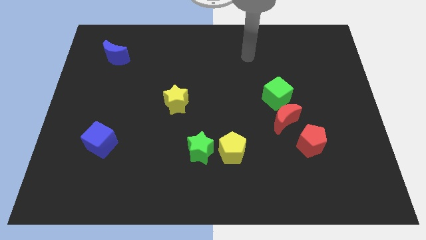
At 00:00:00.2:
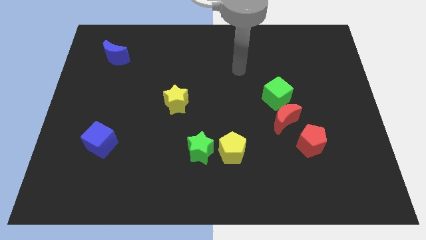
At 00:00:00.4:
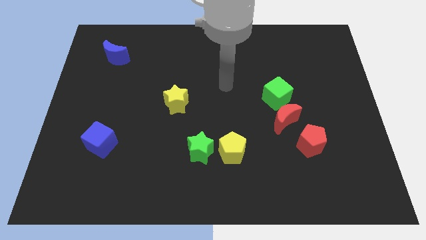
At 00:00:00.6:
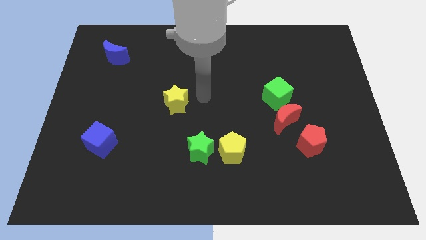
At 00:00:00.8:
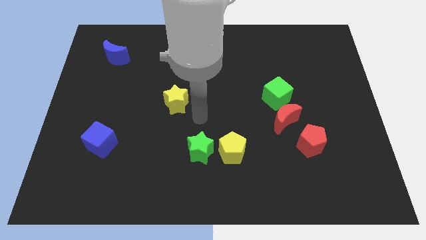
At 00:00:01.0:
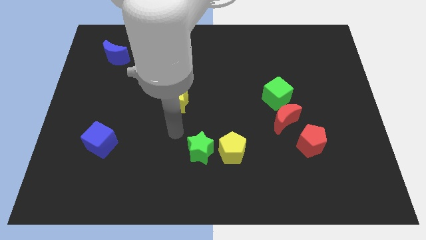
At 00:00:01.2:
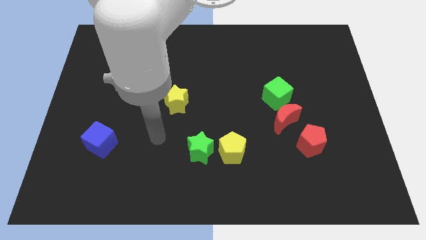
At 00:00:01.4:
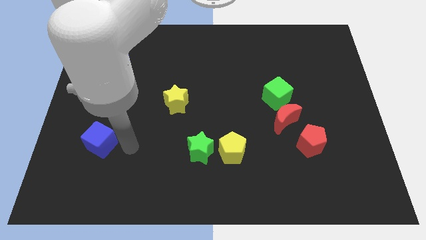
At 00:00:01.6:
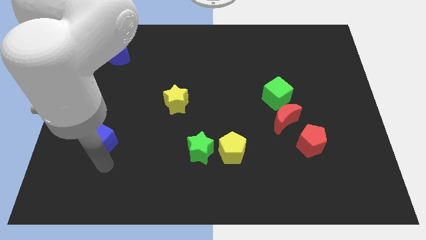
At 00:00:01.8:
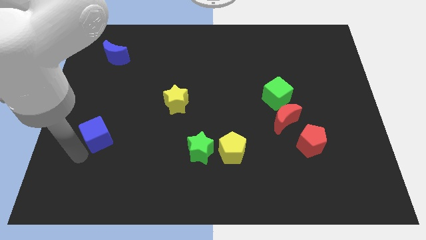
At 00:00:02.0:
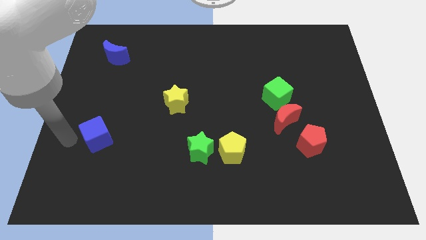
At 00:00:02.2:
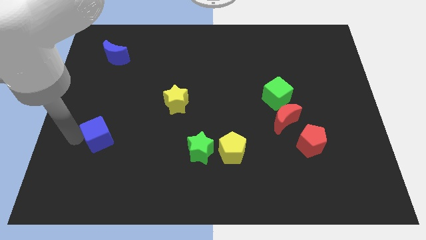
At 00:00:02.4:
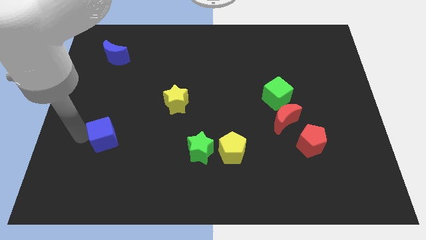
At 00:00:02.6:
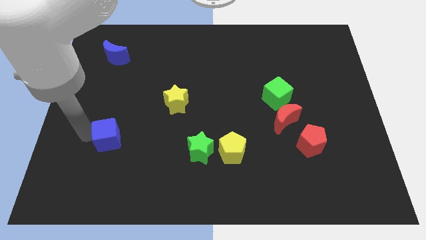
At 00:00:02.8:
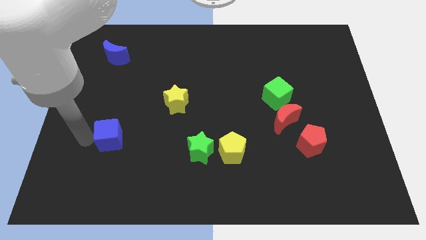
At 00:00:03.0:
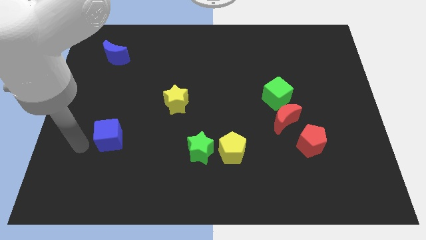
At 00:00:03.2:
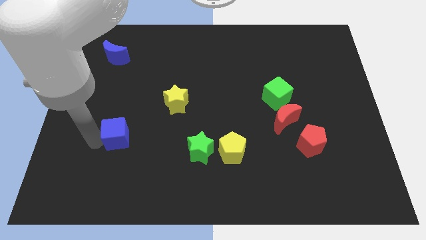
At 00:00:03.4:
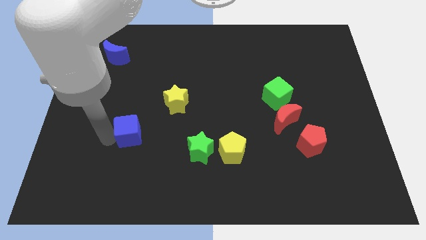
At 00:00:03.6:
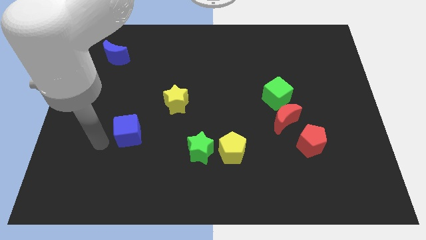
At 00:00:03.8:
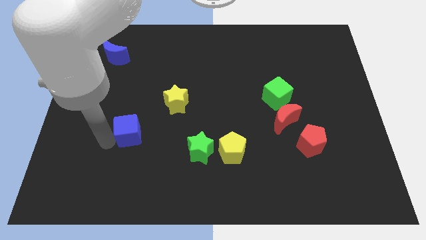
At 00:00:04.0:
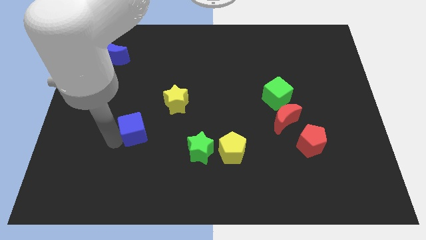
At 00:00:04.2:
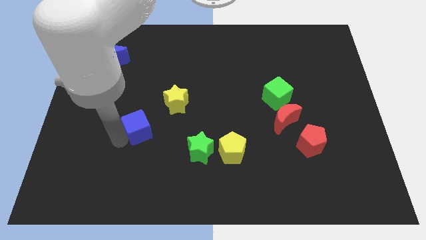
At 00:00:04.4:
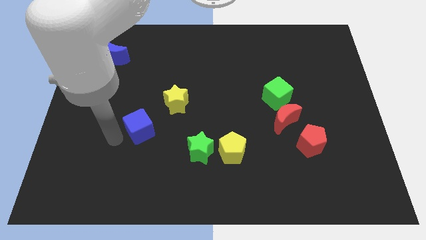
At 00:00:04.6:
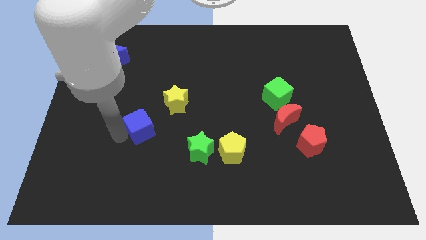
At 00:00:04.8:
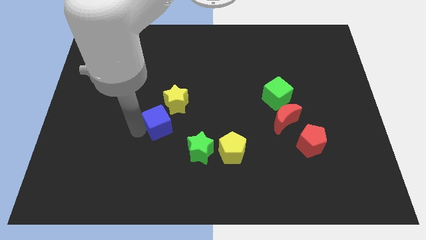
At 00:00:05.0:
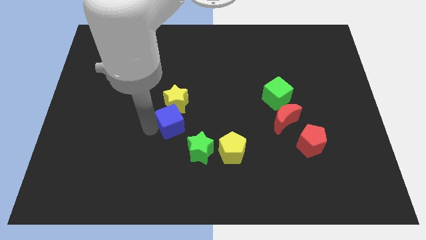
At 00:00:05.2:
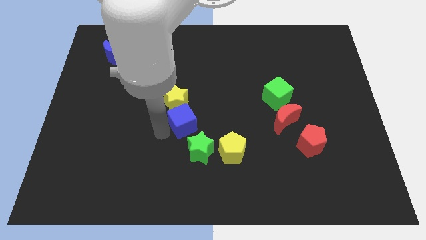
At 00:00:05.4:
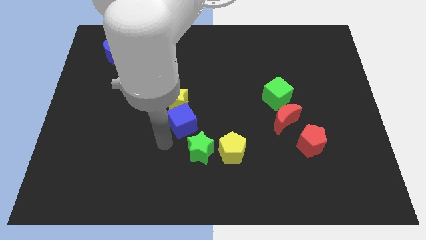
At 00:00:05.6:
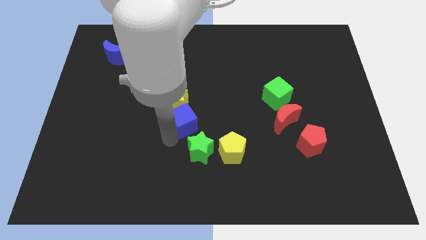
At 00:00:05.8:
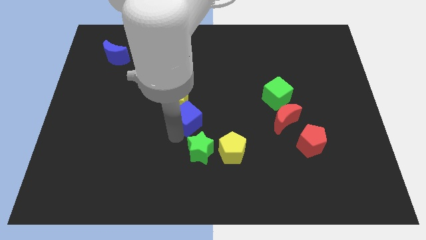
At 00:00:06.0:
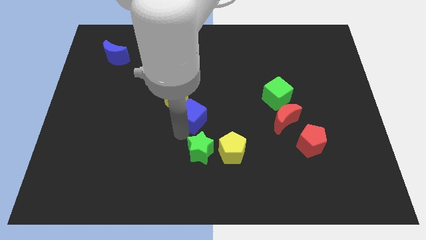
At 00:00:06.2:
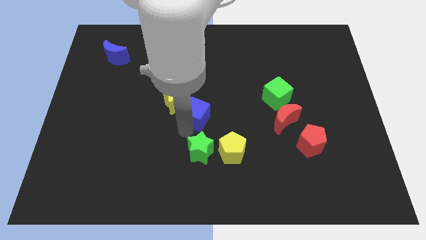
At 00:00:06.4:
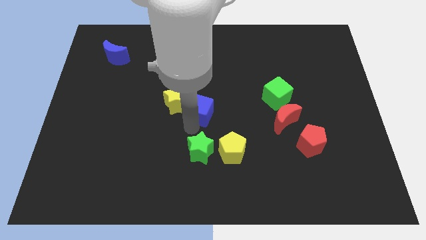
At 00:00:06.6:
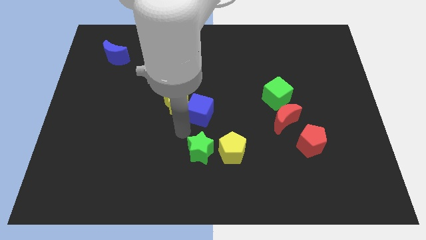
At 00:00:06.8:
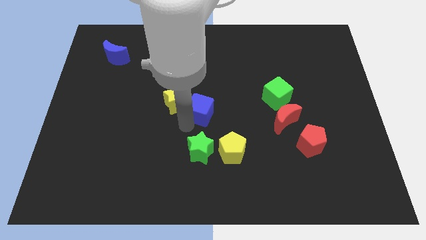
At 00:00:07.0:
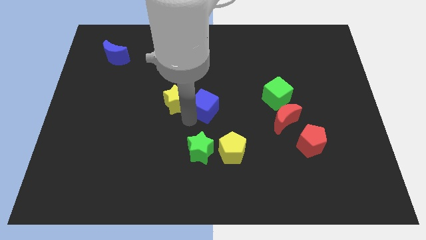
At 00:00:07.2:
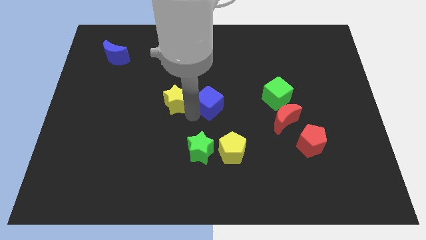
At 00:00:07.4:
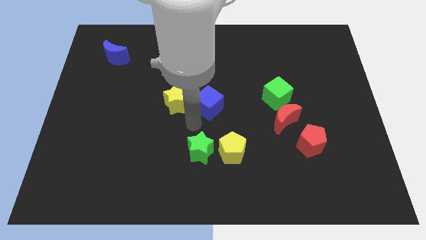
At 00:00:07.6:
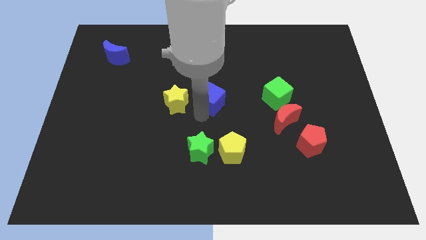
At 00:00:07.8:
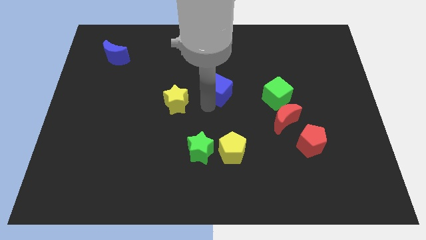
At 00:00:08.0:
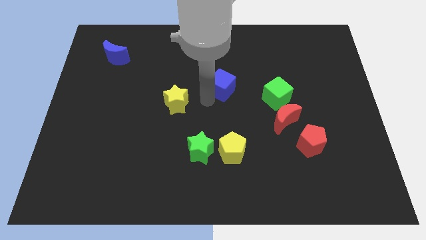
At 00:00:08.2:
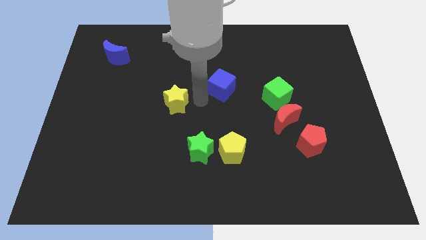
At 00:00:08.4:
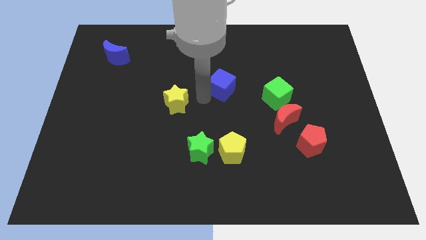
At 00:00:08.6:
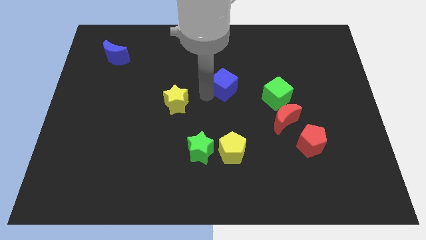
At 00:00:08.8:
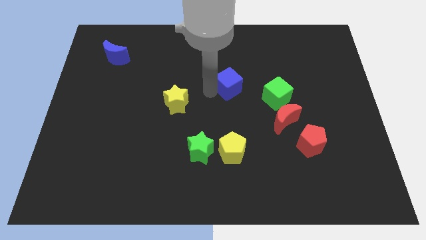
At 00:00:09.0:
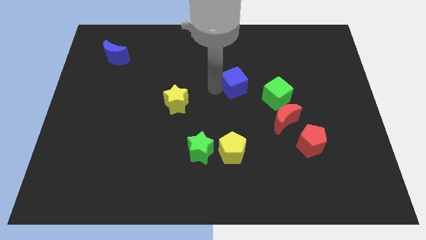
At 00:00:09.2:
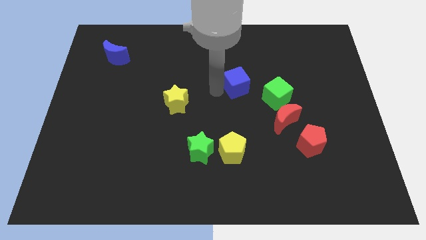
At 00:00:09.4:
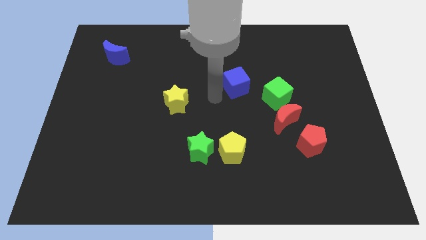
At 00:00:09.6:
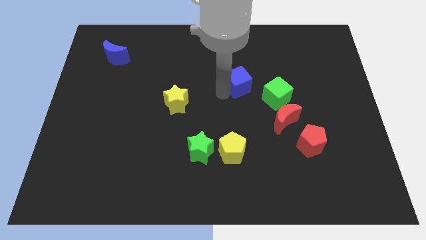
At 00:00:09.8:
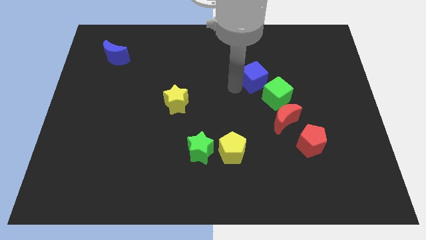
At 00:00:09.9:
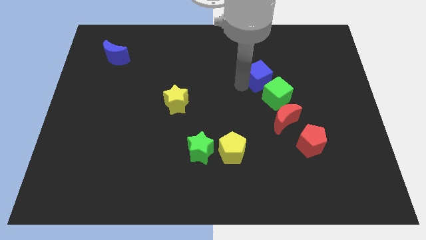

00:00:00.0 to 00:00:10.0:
move the blue cube to the top side of the green cube

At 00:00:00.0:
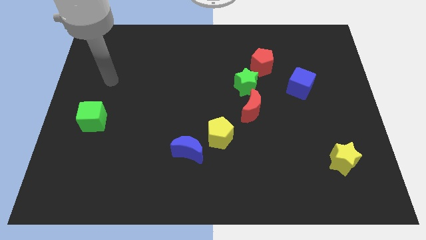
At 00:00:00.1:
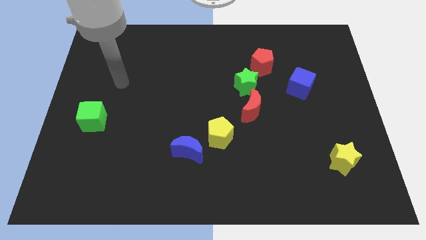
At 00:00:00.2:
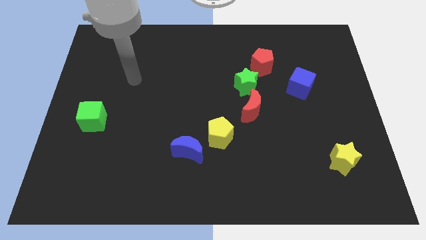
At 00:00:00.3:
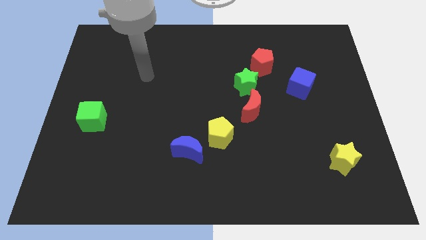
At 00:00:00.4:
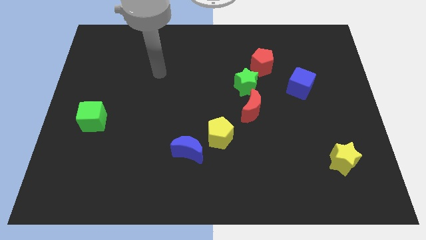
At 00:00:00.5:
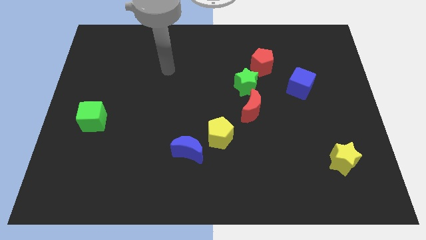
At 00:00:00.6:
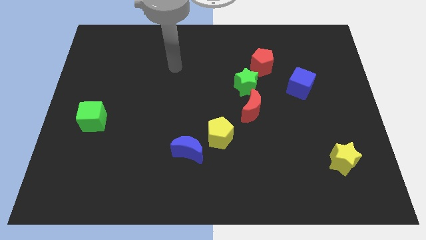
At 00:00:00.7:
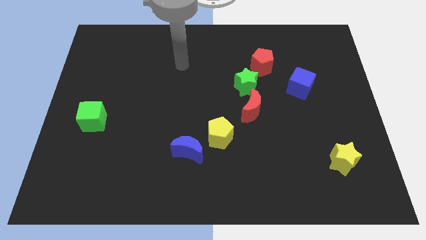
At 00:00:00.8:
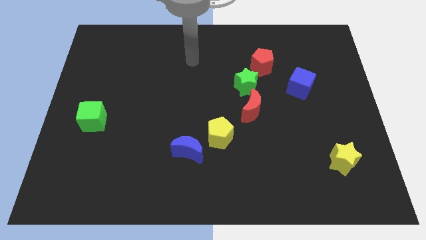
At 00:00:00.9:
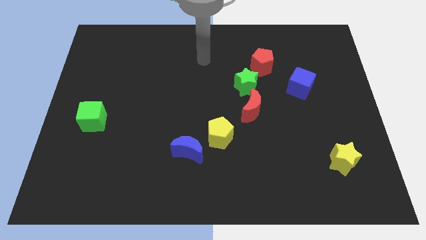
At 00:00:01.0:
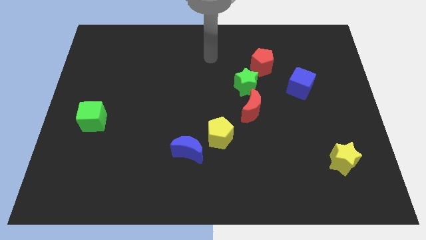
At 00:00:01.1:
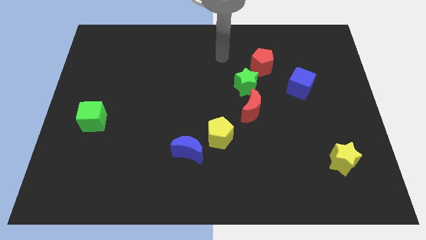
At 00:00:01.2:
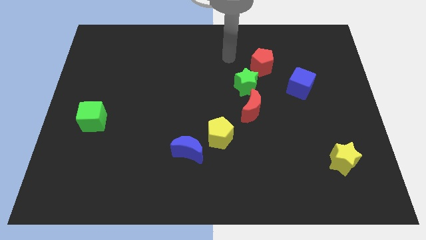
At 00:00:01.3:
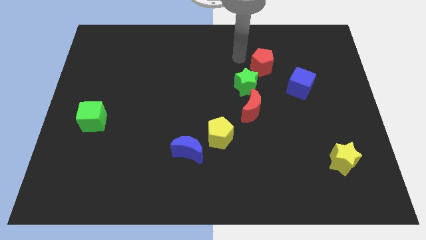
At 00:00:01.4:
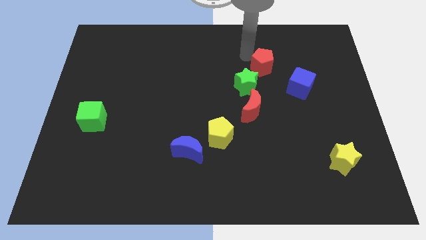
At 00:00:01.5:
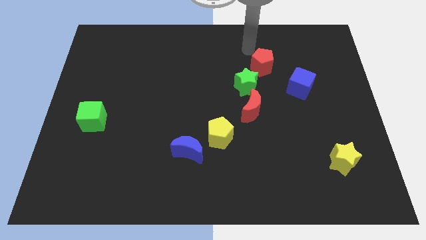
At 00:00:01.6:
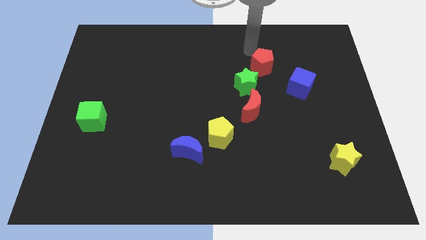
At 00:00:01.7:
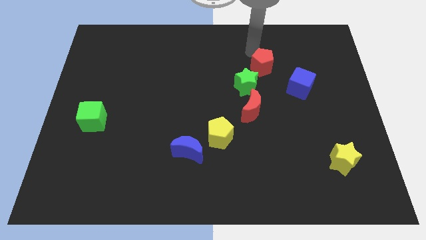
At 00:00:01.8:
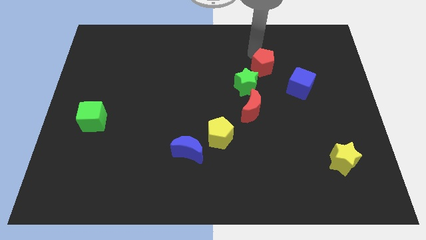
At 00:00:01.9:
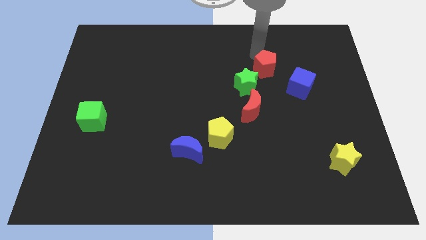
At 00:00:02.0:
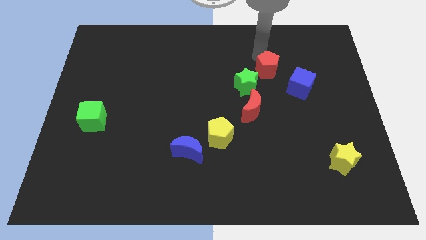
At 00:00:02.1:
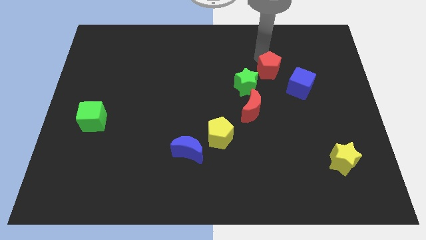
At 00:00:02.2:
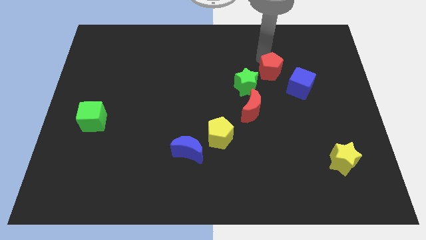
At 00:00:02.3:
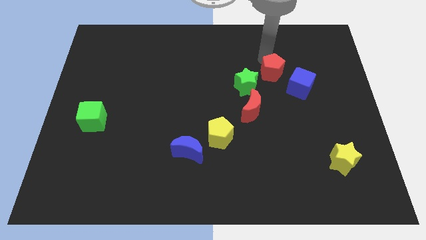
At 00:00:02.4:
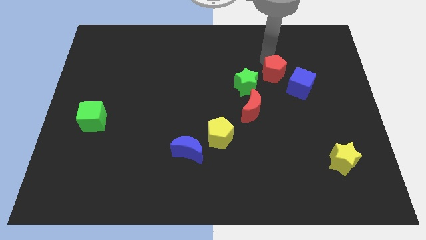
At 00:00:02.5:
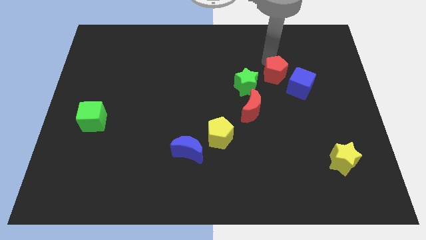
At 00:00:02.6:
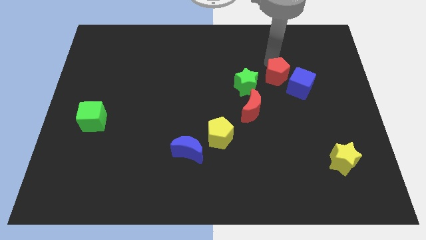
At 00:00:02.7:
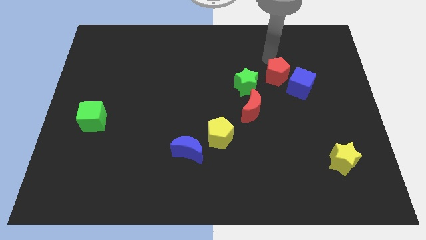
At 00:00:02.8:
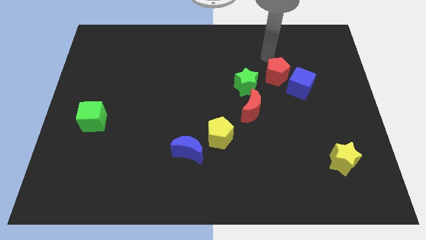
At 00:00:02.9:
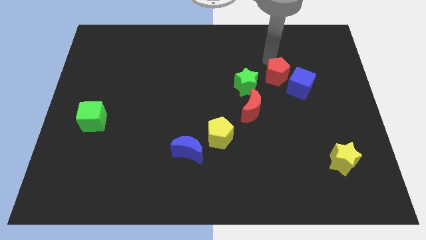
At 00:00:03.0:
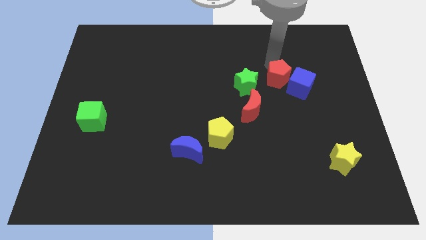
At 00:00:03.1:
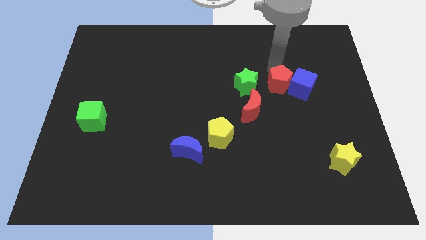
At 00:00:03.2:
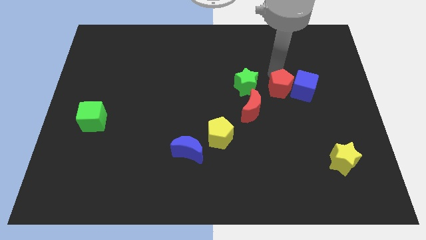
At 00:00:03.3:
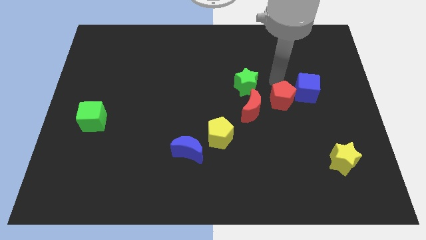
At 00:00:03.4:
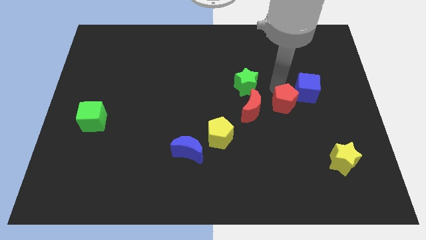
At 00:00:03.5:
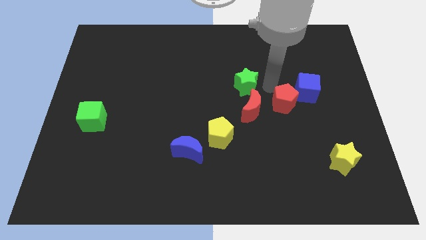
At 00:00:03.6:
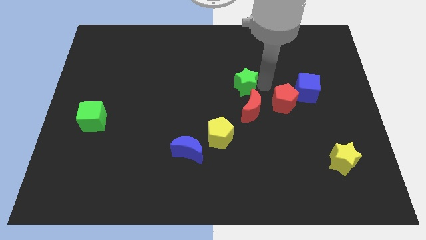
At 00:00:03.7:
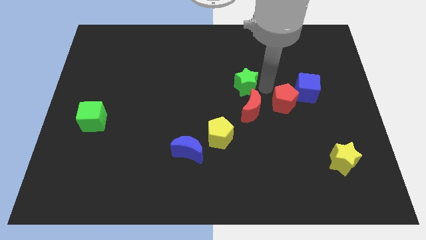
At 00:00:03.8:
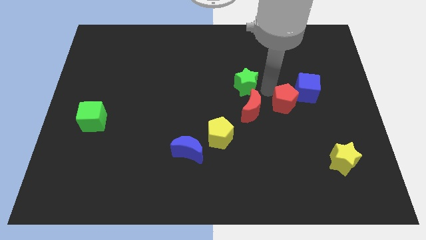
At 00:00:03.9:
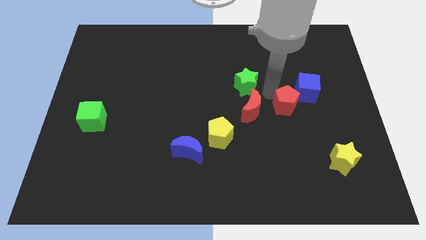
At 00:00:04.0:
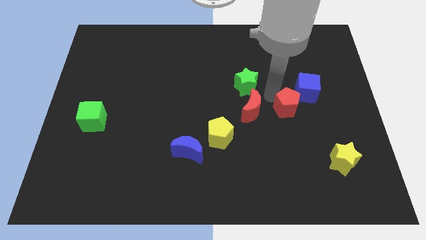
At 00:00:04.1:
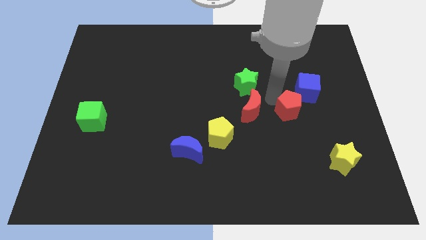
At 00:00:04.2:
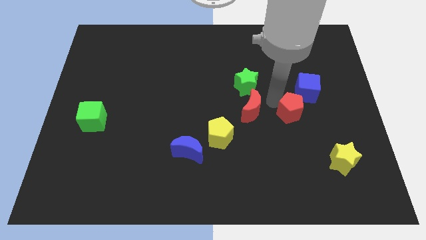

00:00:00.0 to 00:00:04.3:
put the red pentagon to the bottom of the blue cube
